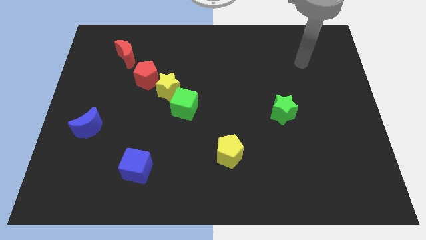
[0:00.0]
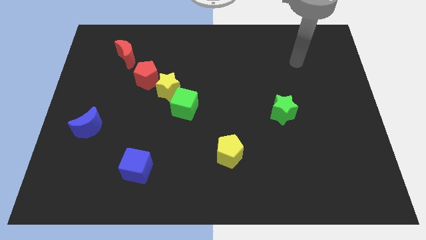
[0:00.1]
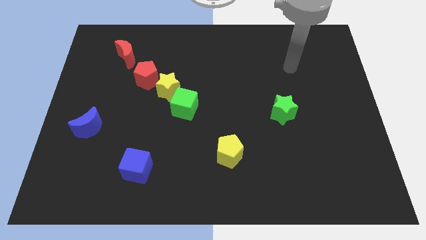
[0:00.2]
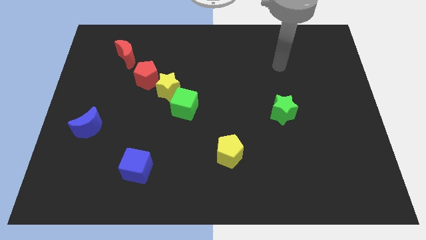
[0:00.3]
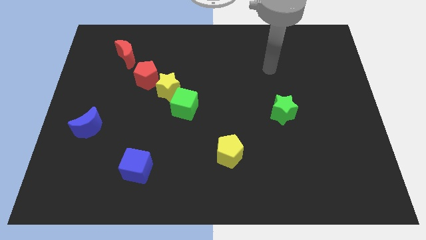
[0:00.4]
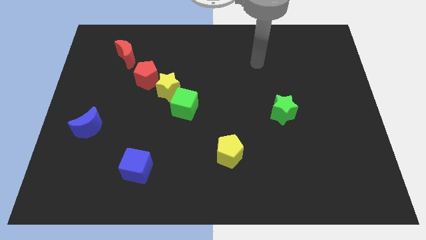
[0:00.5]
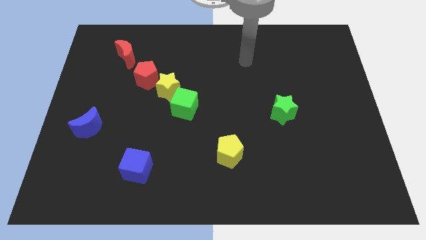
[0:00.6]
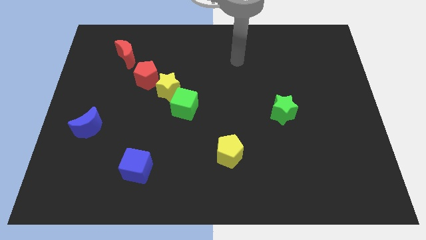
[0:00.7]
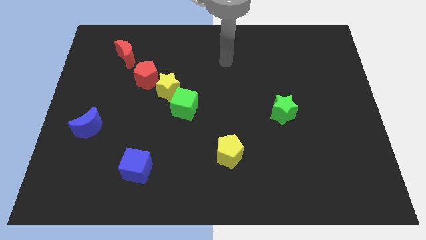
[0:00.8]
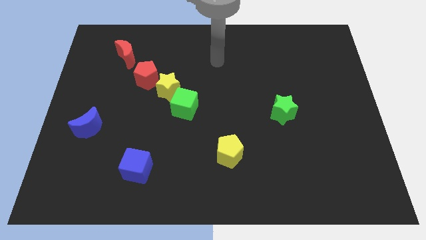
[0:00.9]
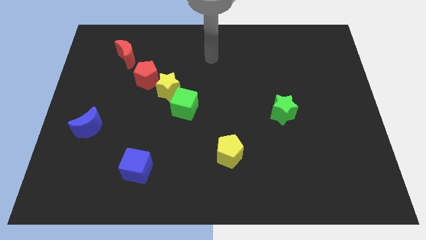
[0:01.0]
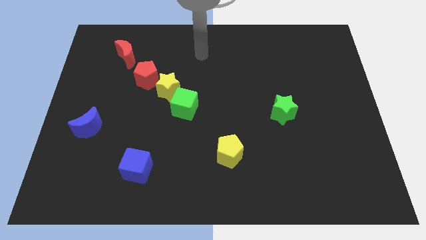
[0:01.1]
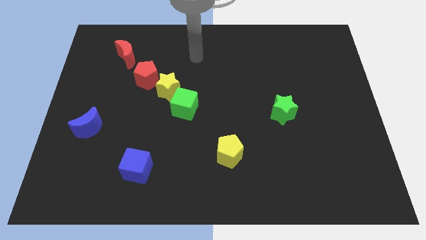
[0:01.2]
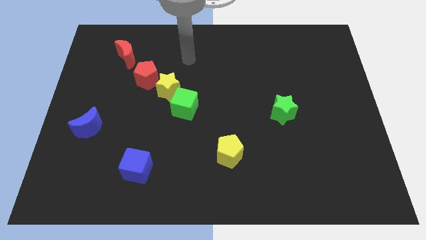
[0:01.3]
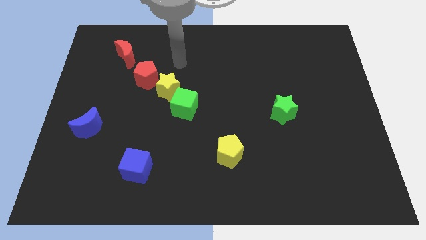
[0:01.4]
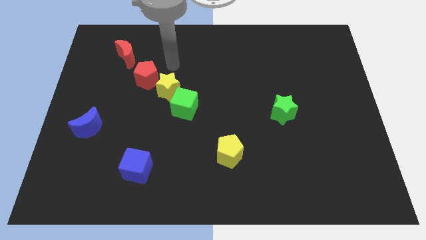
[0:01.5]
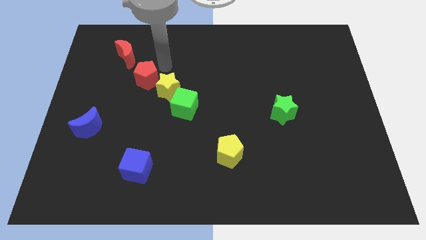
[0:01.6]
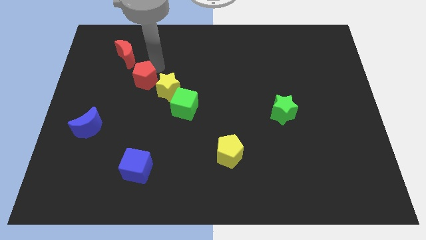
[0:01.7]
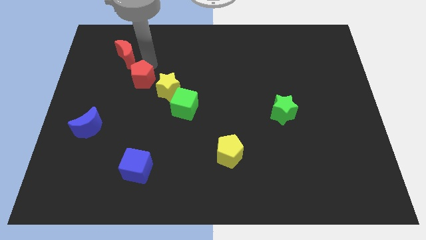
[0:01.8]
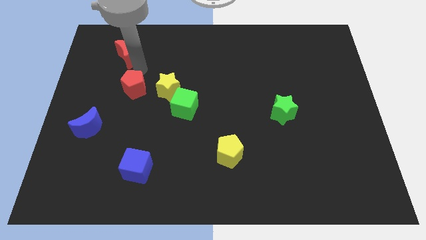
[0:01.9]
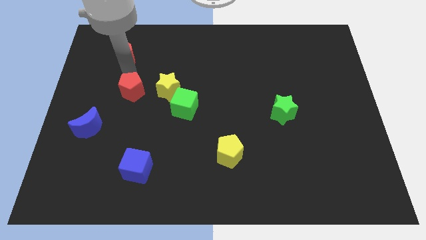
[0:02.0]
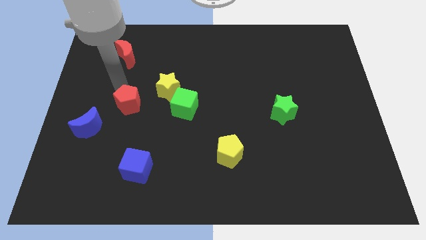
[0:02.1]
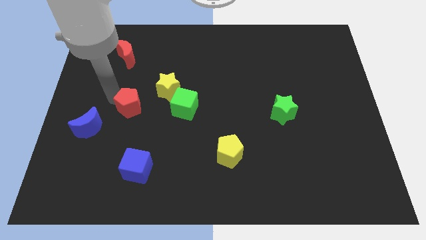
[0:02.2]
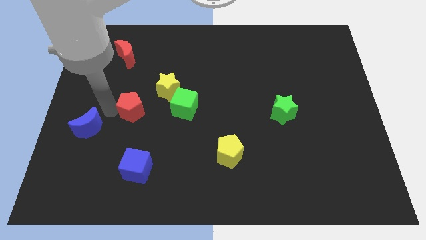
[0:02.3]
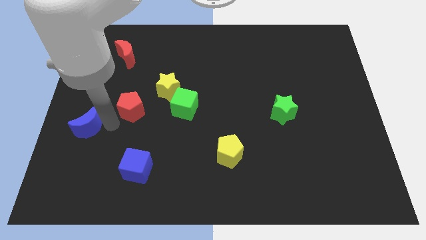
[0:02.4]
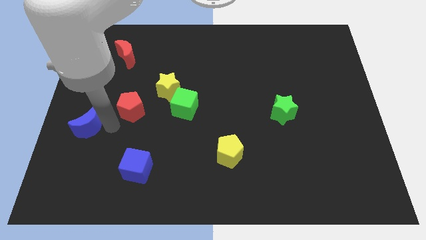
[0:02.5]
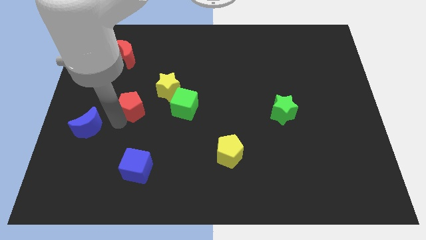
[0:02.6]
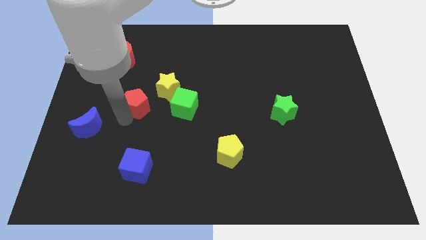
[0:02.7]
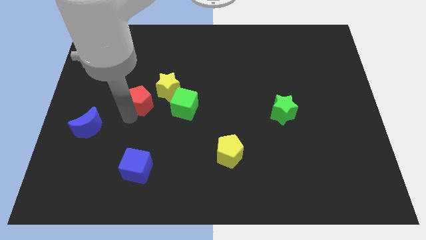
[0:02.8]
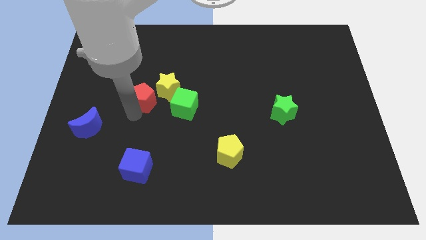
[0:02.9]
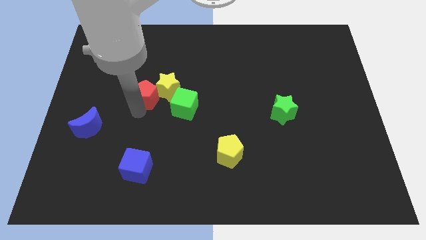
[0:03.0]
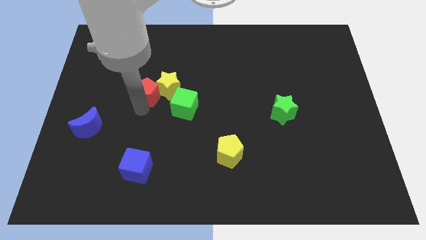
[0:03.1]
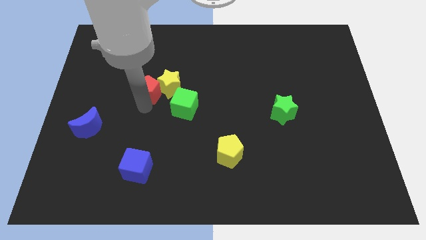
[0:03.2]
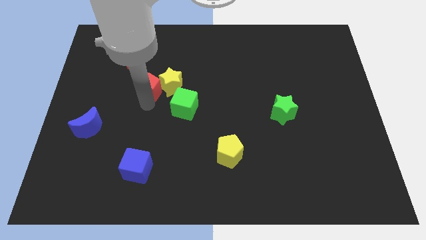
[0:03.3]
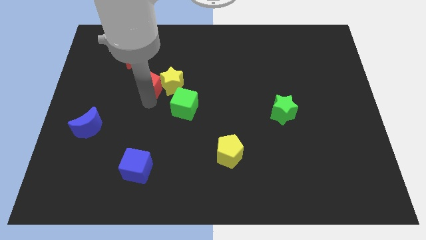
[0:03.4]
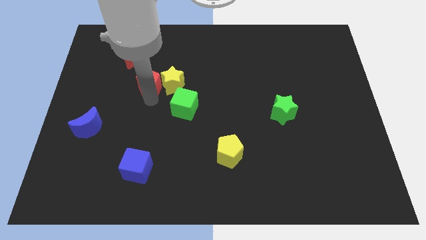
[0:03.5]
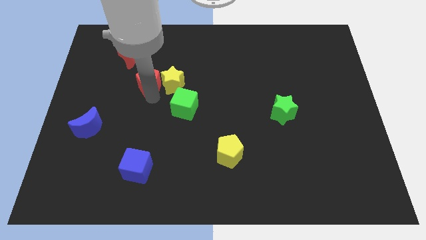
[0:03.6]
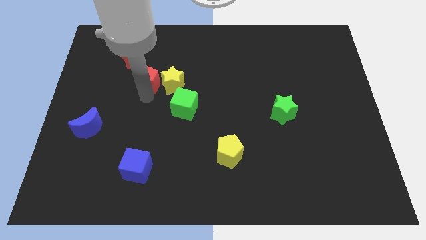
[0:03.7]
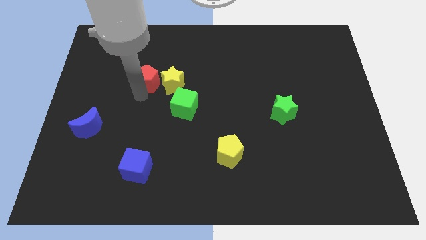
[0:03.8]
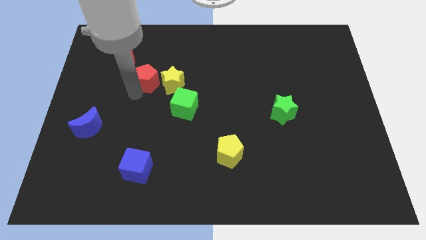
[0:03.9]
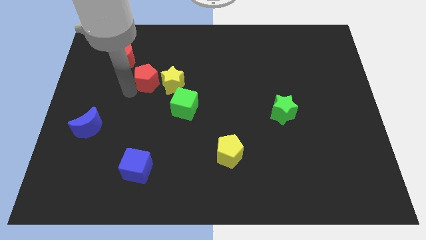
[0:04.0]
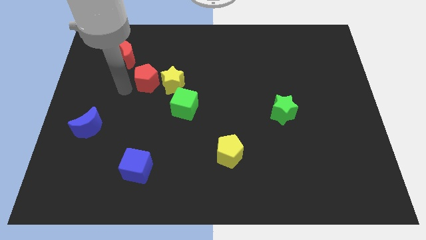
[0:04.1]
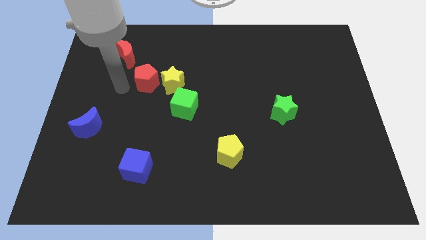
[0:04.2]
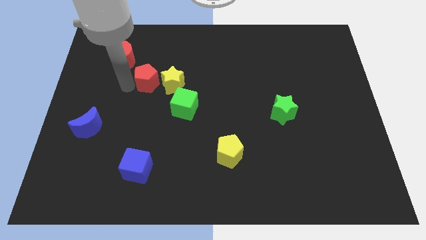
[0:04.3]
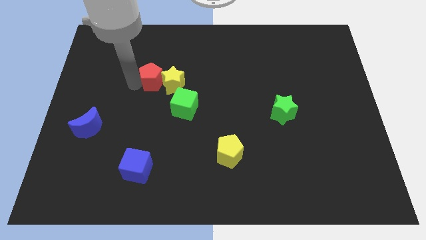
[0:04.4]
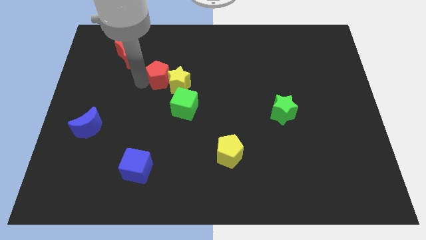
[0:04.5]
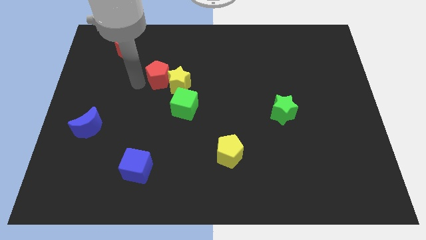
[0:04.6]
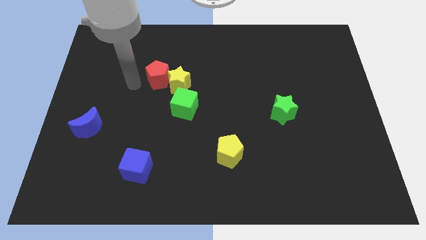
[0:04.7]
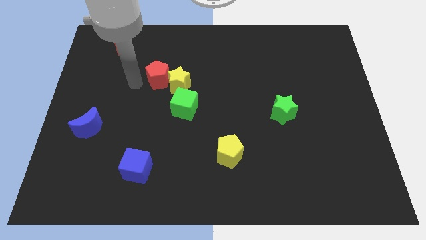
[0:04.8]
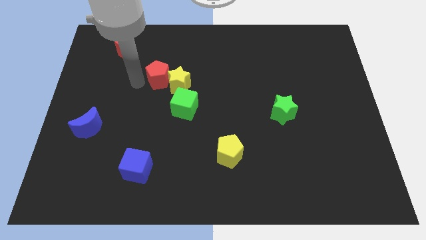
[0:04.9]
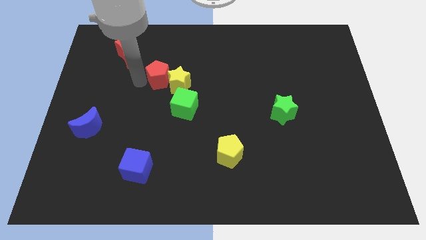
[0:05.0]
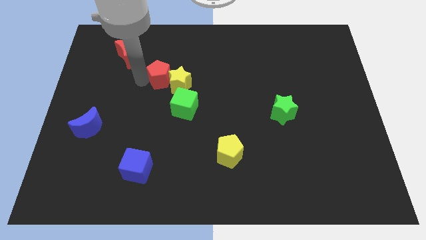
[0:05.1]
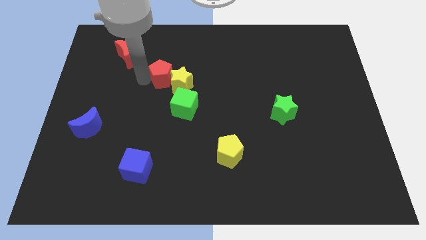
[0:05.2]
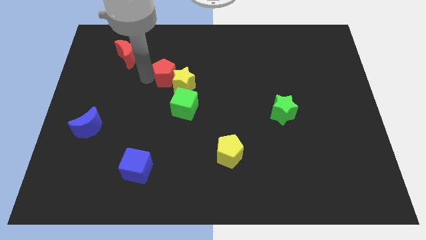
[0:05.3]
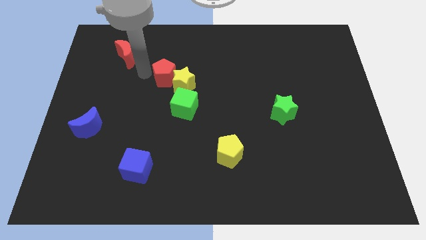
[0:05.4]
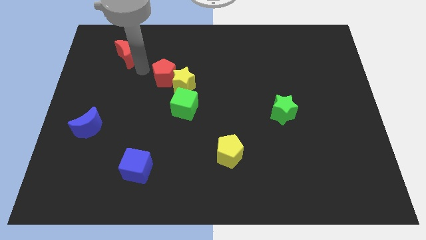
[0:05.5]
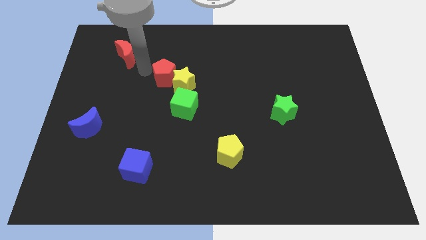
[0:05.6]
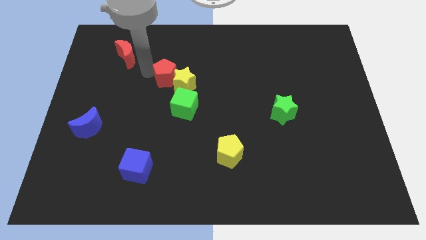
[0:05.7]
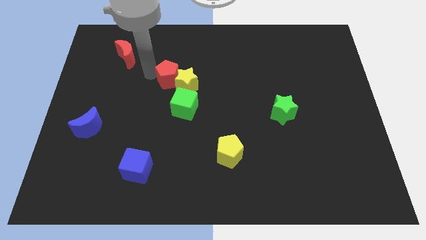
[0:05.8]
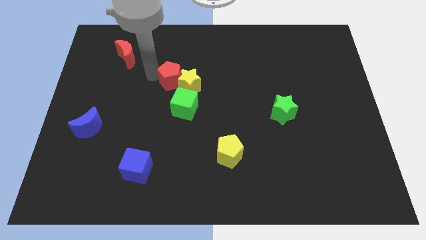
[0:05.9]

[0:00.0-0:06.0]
push the red pentagon to the middle of the board

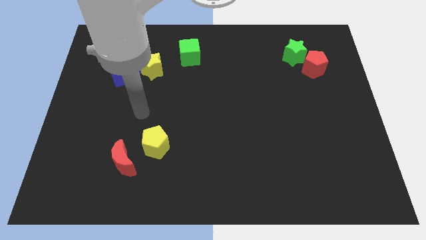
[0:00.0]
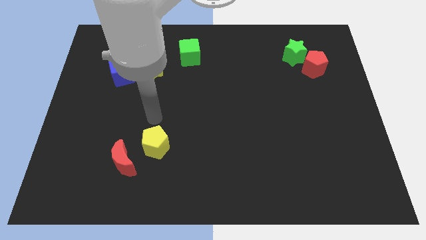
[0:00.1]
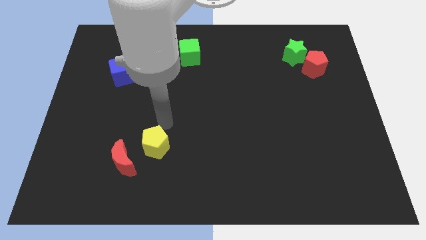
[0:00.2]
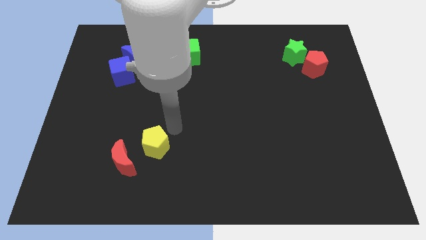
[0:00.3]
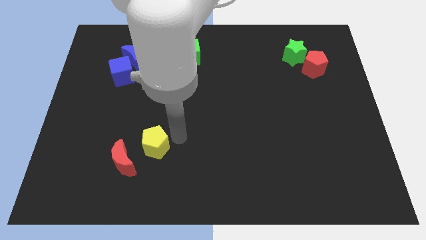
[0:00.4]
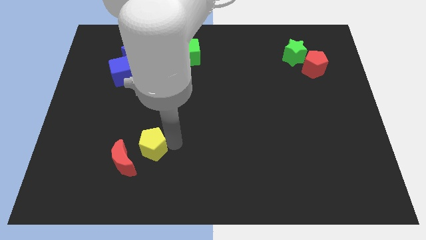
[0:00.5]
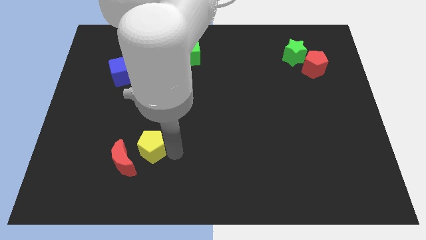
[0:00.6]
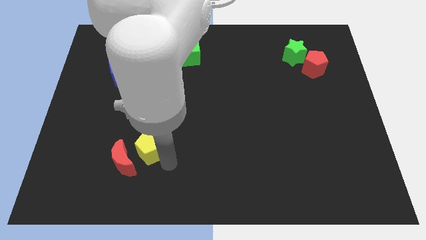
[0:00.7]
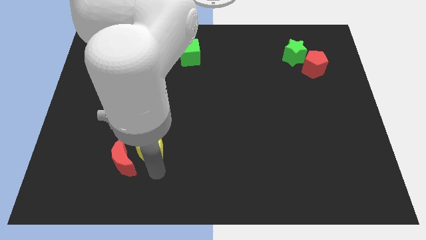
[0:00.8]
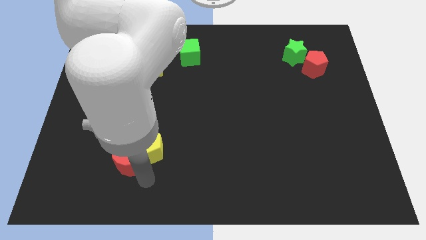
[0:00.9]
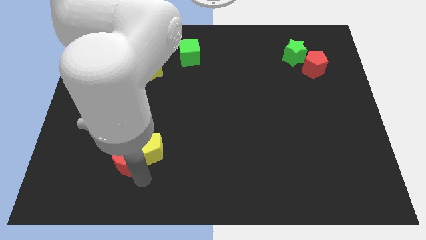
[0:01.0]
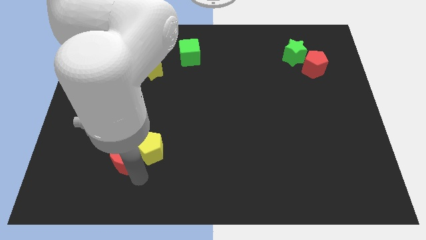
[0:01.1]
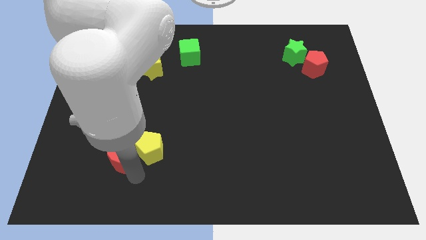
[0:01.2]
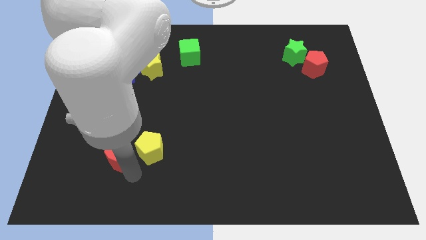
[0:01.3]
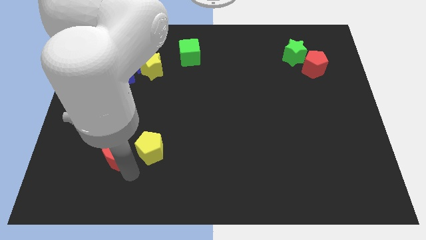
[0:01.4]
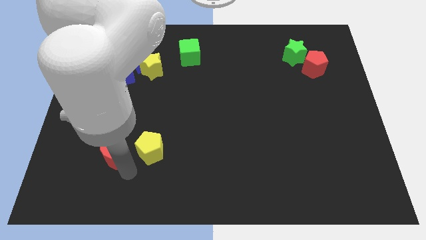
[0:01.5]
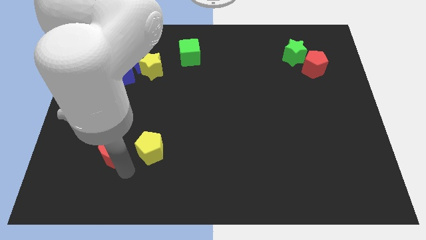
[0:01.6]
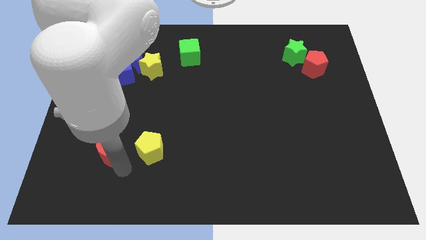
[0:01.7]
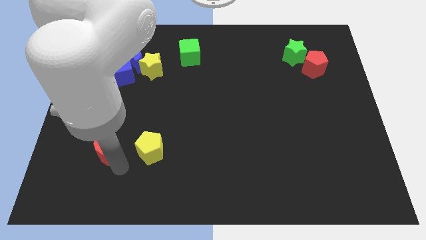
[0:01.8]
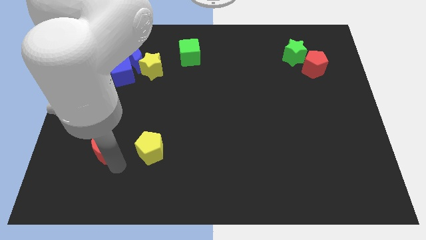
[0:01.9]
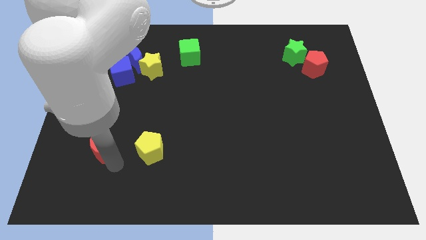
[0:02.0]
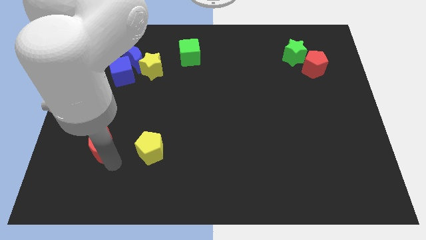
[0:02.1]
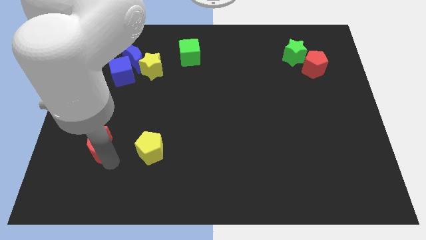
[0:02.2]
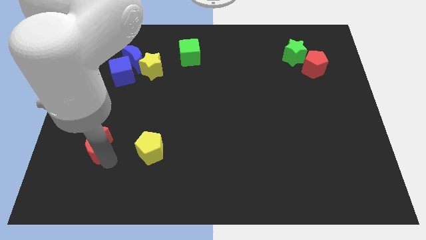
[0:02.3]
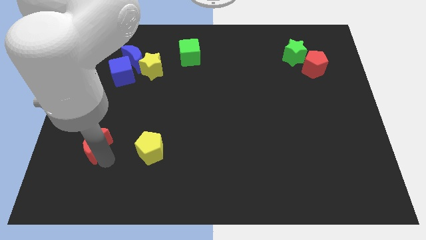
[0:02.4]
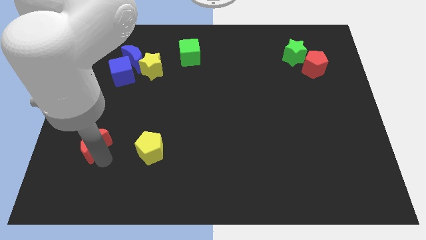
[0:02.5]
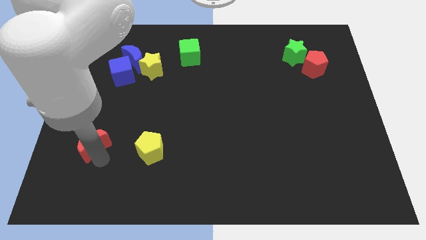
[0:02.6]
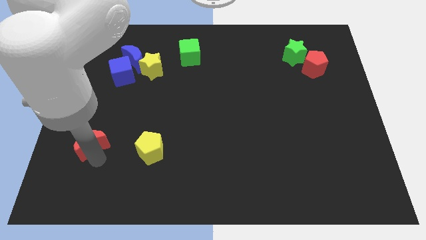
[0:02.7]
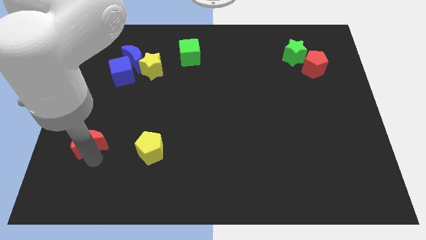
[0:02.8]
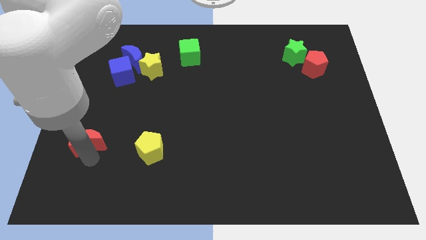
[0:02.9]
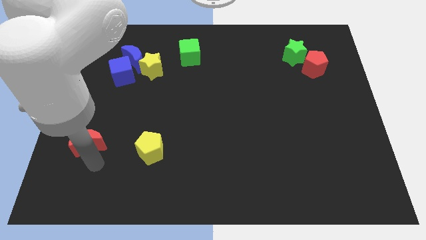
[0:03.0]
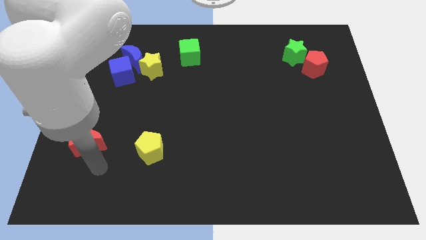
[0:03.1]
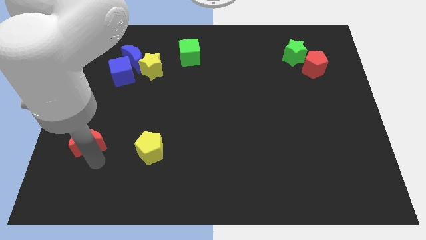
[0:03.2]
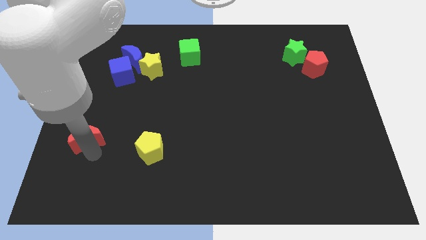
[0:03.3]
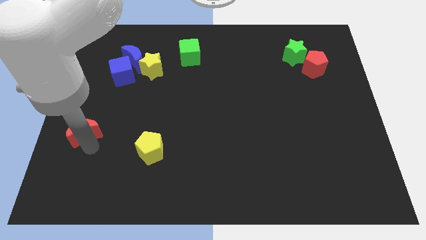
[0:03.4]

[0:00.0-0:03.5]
push the red moon to the center left
